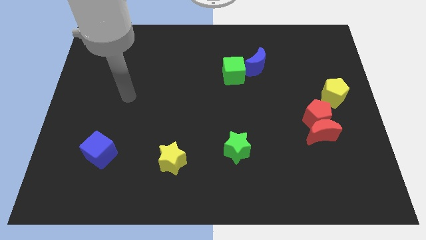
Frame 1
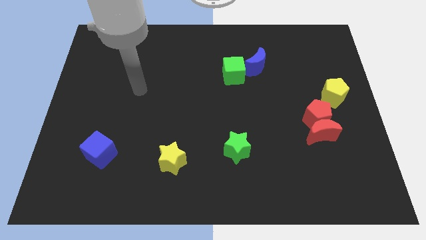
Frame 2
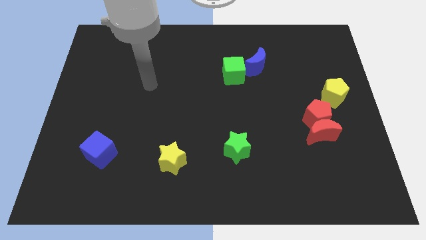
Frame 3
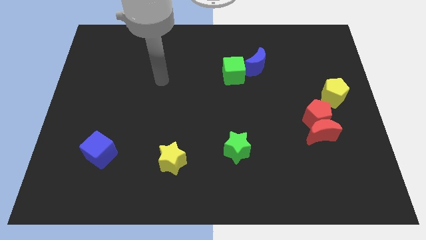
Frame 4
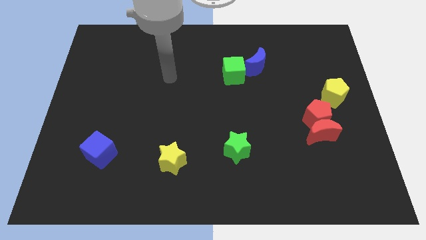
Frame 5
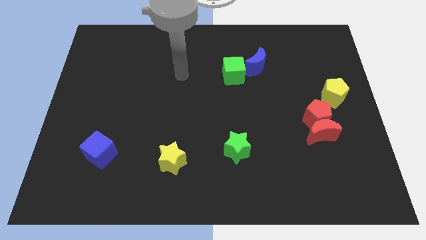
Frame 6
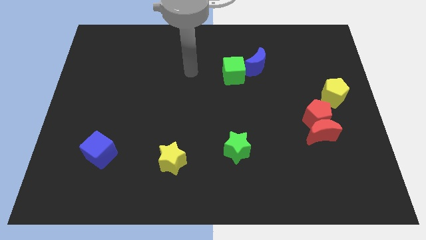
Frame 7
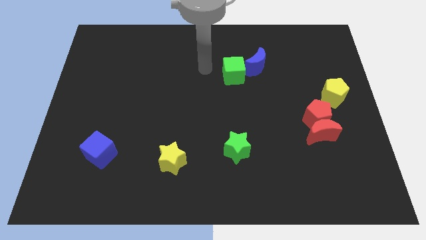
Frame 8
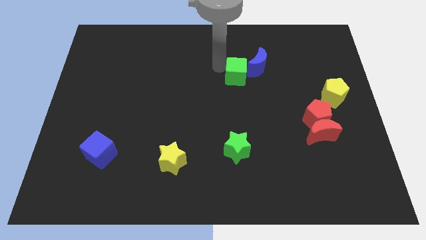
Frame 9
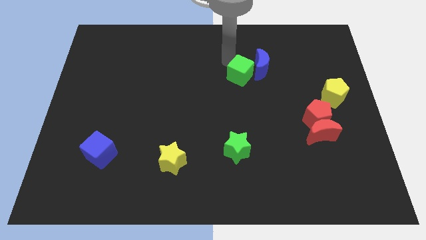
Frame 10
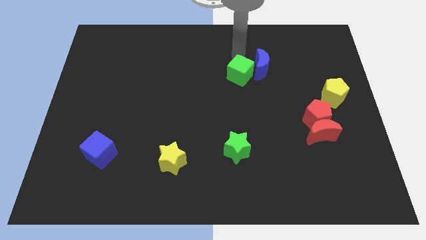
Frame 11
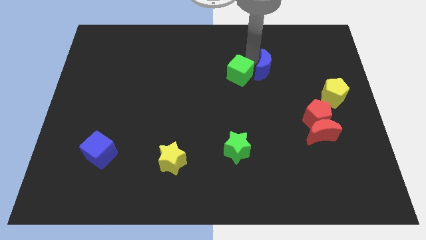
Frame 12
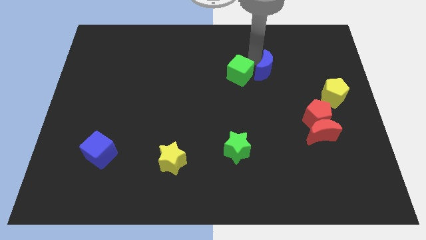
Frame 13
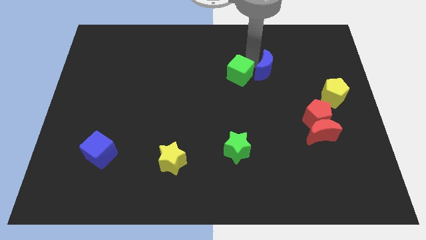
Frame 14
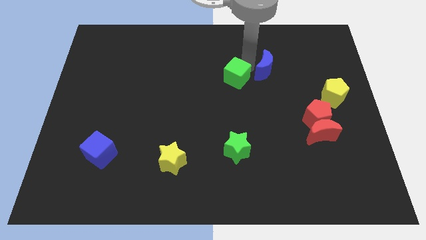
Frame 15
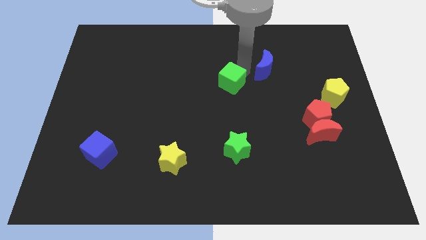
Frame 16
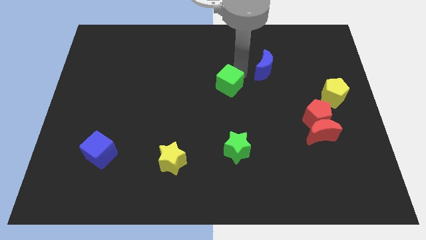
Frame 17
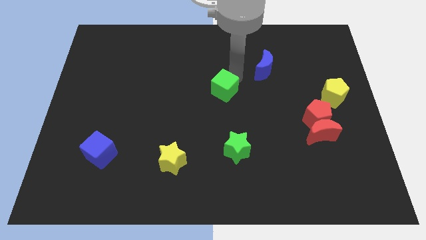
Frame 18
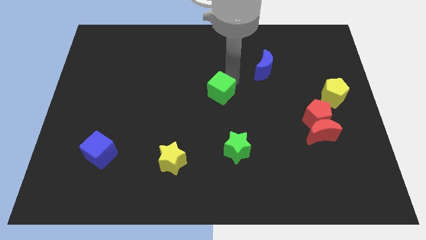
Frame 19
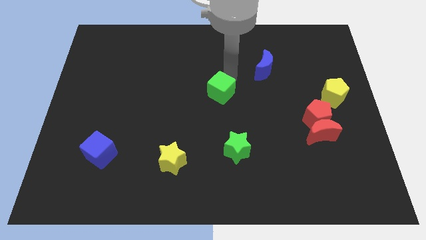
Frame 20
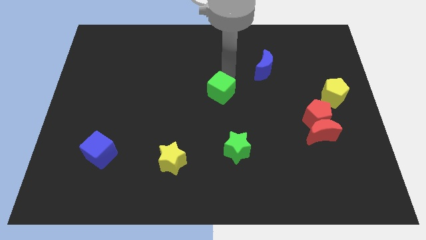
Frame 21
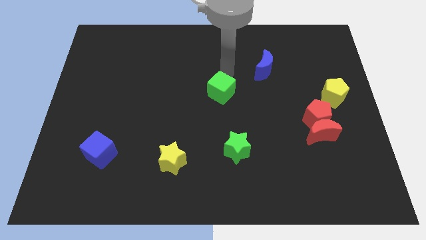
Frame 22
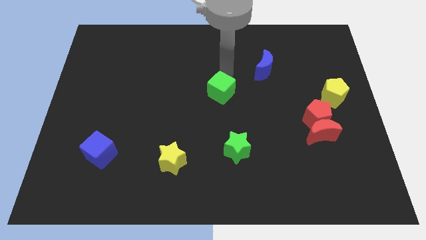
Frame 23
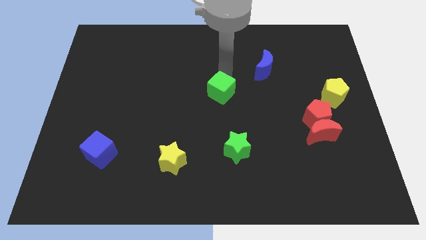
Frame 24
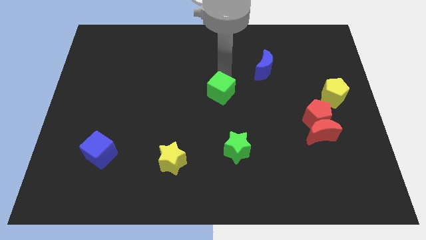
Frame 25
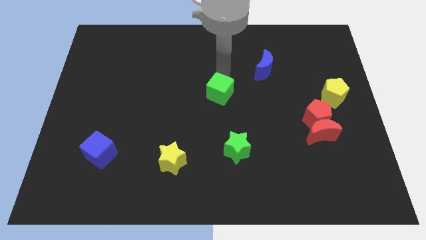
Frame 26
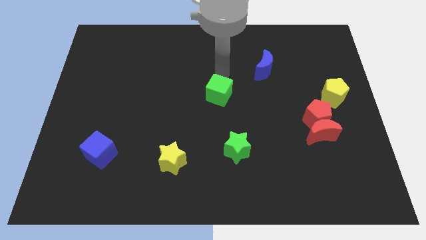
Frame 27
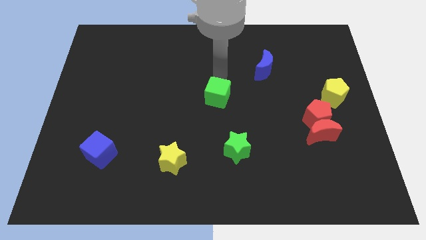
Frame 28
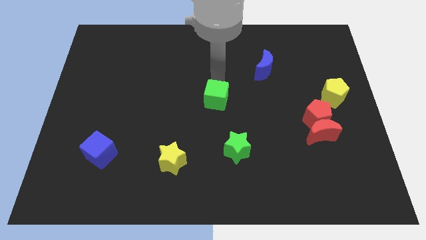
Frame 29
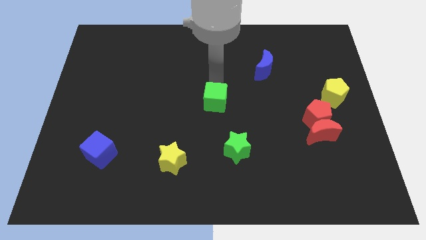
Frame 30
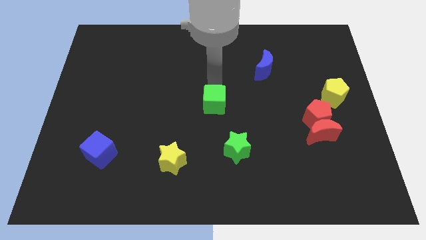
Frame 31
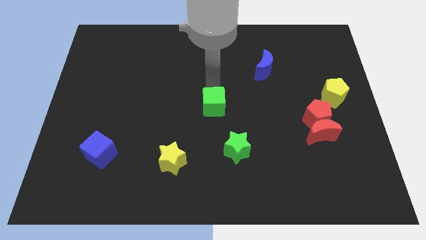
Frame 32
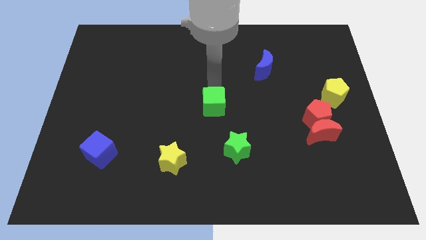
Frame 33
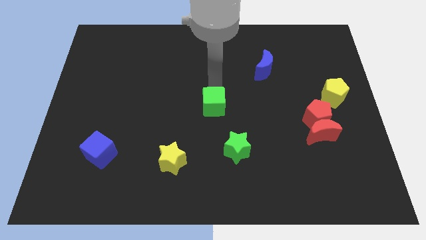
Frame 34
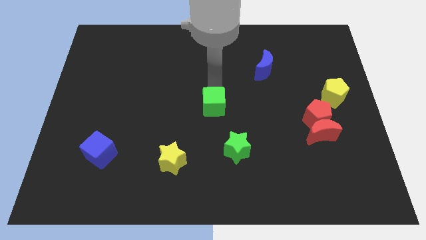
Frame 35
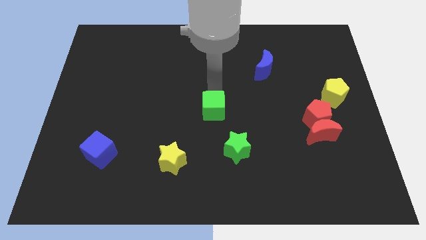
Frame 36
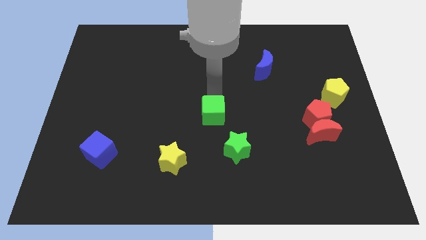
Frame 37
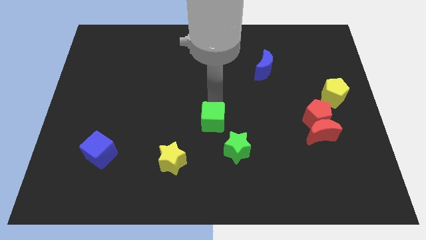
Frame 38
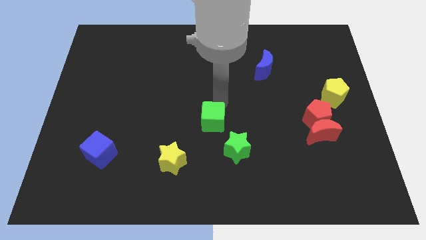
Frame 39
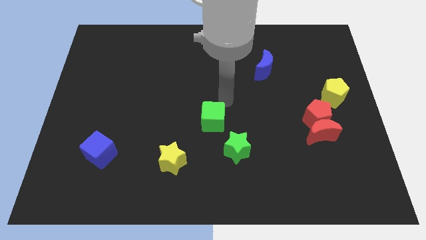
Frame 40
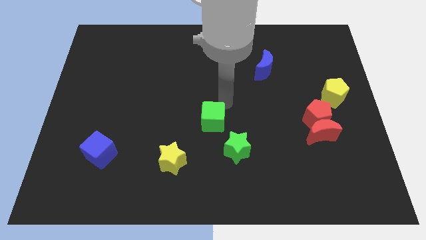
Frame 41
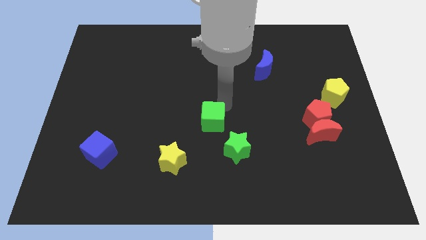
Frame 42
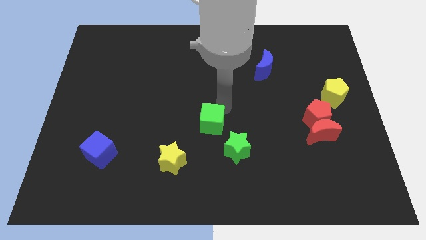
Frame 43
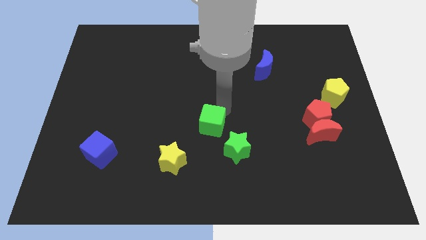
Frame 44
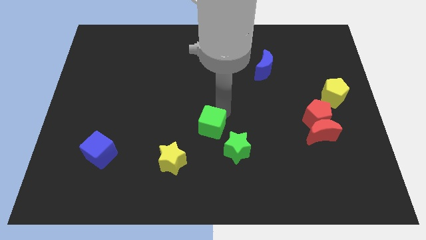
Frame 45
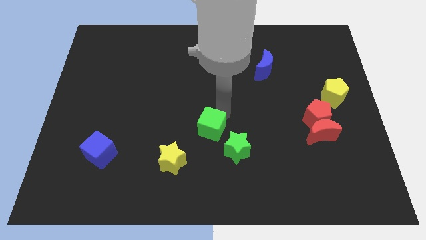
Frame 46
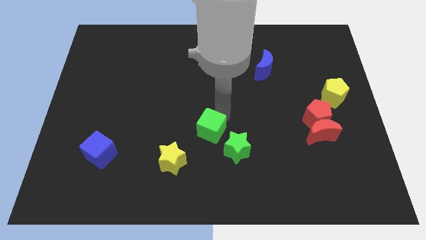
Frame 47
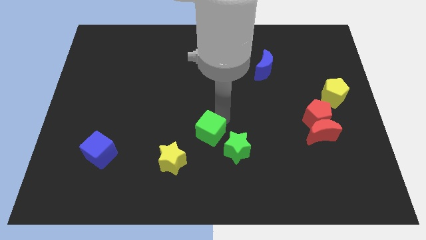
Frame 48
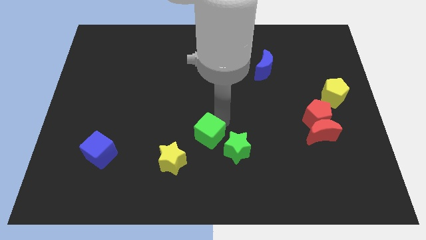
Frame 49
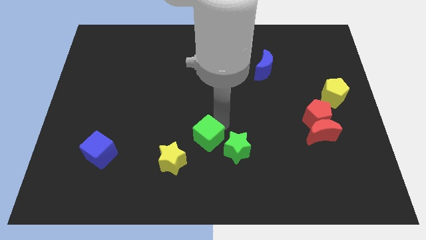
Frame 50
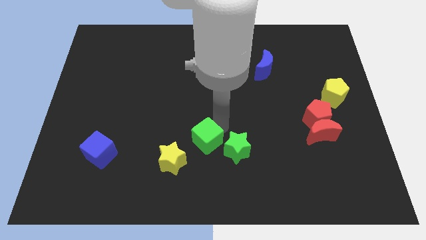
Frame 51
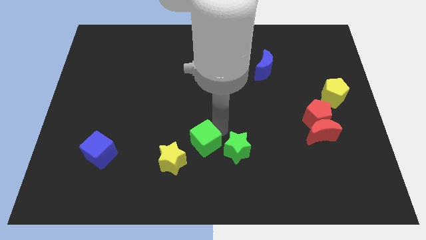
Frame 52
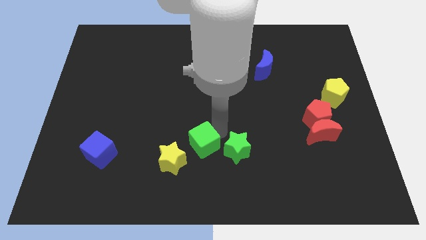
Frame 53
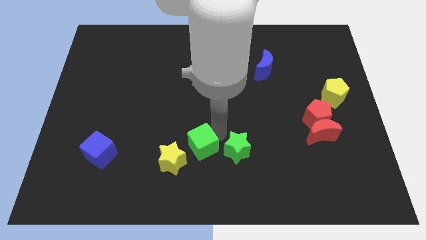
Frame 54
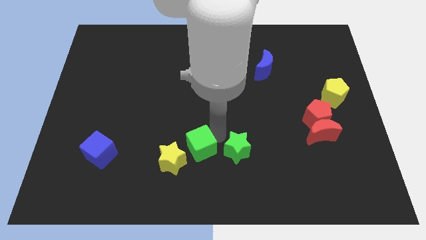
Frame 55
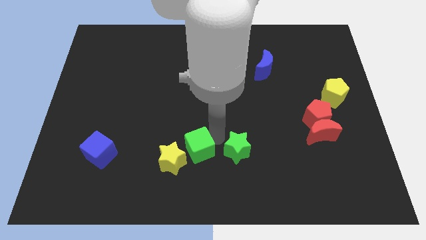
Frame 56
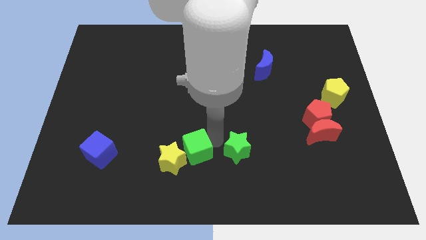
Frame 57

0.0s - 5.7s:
move the green cube to the yellow star

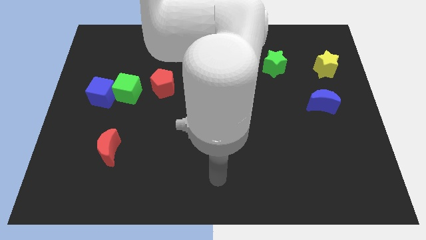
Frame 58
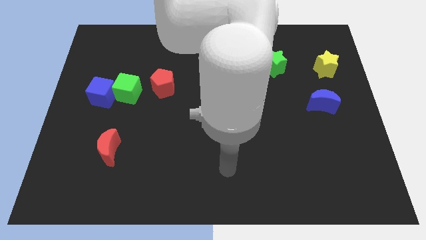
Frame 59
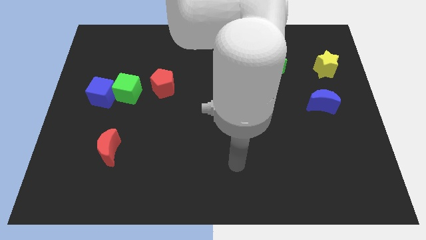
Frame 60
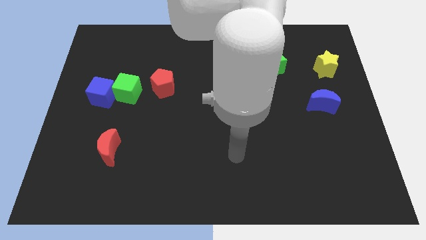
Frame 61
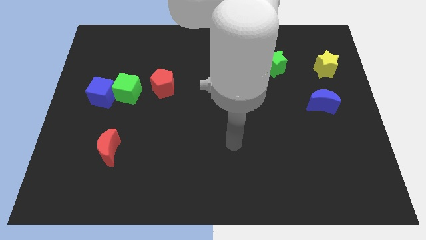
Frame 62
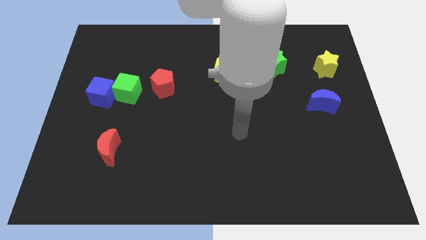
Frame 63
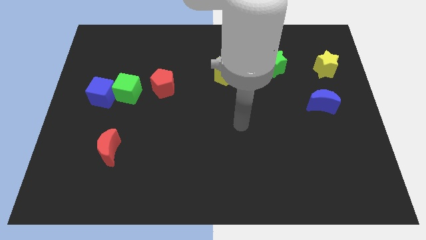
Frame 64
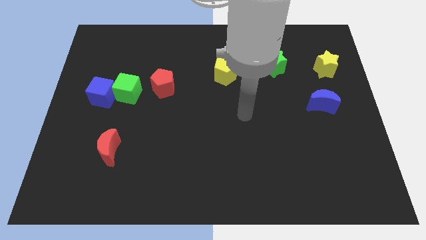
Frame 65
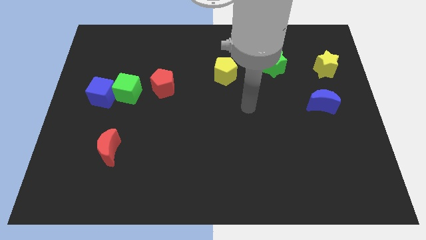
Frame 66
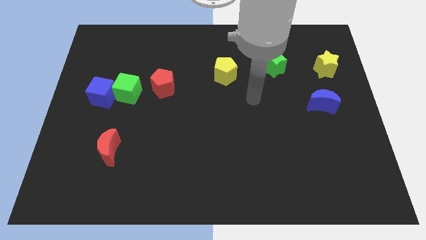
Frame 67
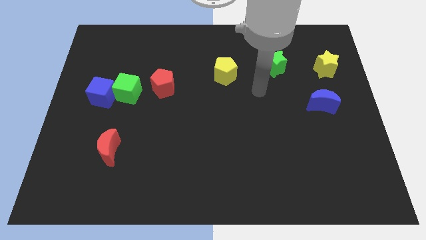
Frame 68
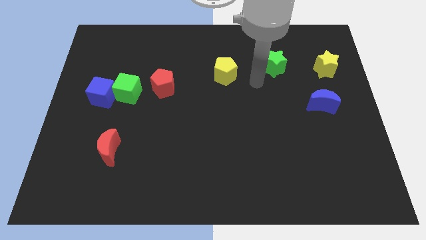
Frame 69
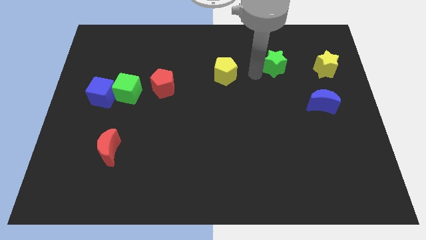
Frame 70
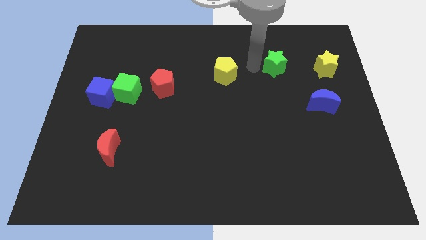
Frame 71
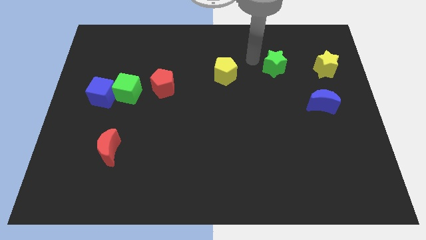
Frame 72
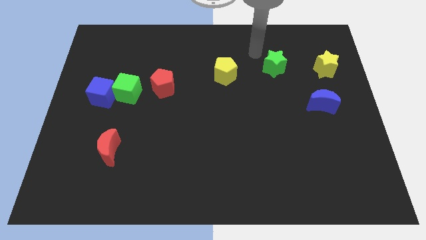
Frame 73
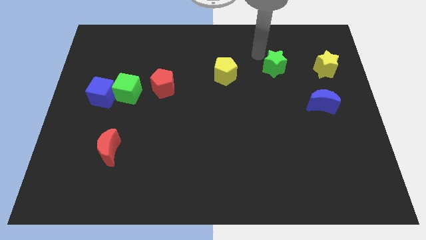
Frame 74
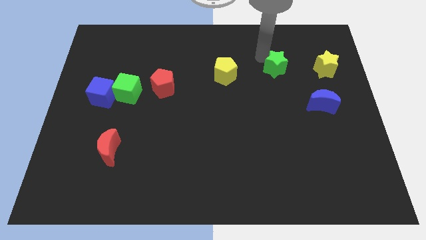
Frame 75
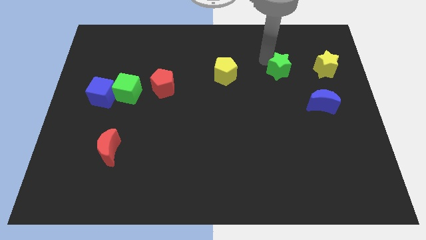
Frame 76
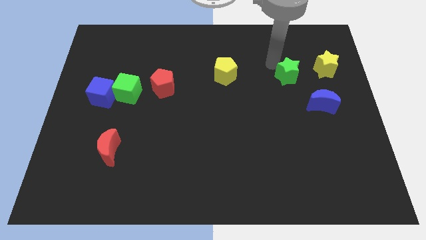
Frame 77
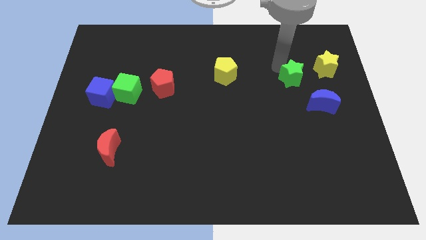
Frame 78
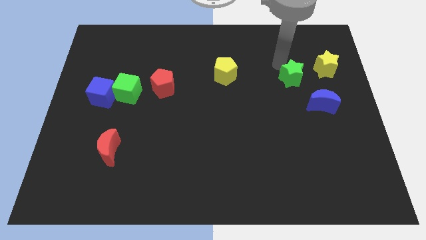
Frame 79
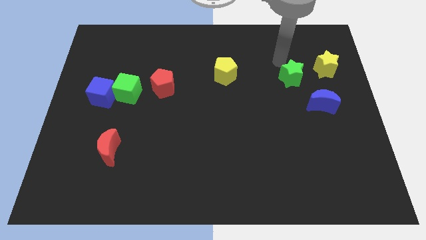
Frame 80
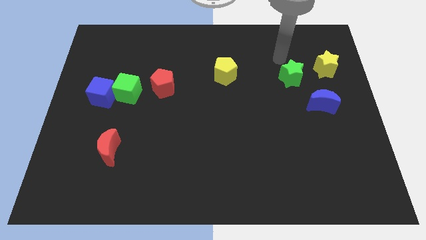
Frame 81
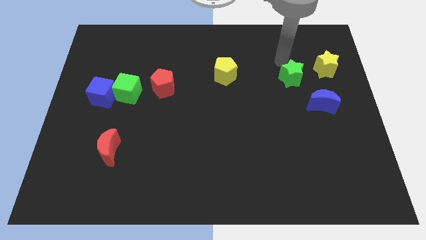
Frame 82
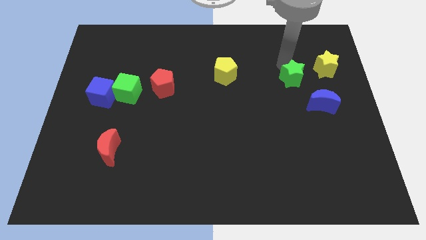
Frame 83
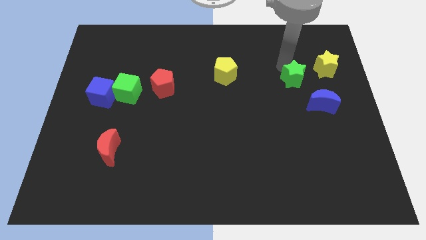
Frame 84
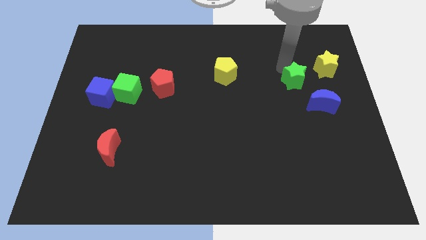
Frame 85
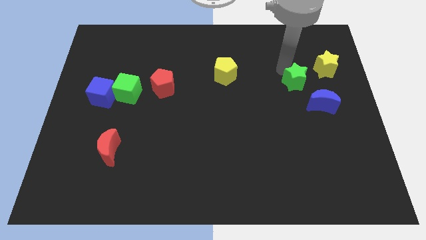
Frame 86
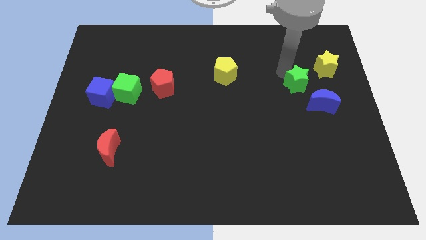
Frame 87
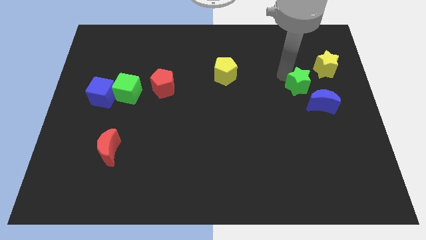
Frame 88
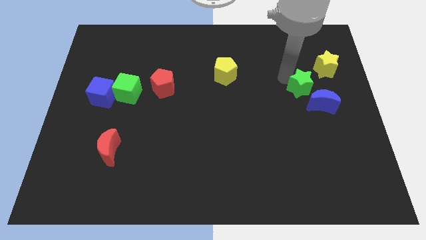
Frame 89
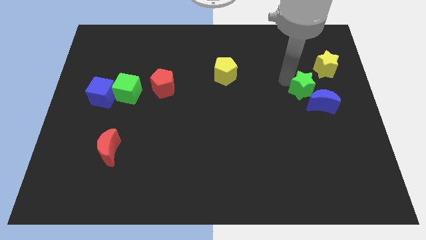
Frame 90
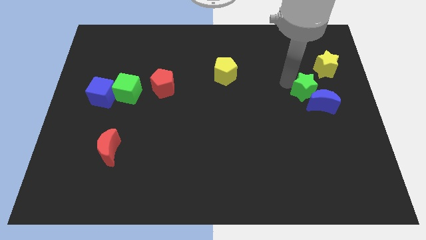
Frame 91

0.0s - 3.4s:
put the green star towards the blue moon
